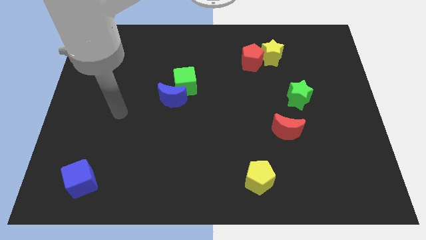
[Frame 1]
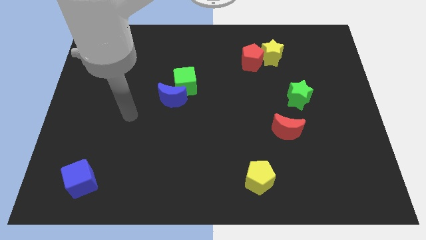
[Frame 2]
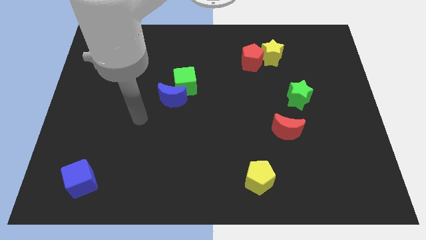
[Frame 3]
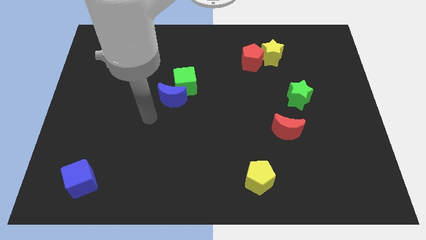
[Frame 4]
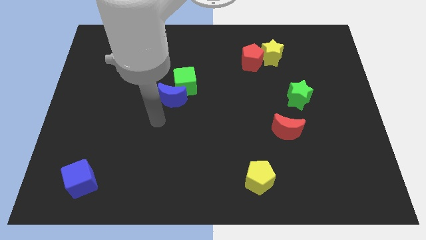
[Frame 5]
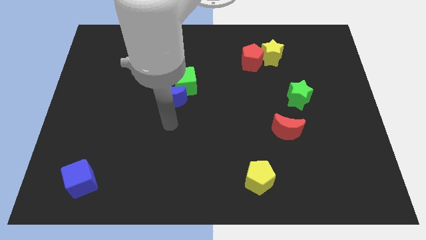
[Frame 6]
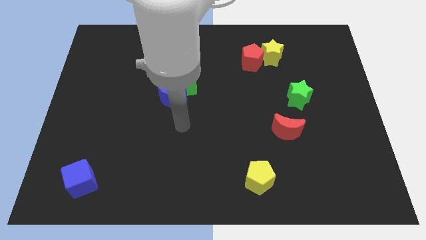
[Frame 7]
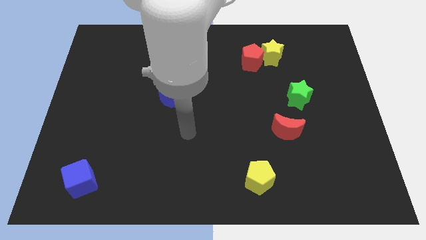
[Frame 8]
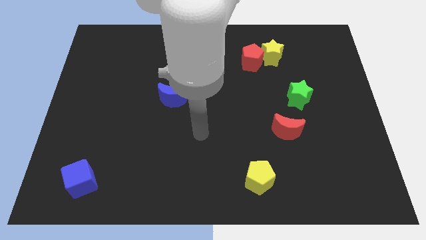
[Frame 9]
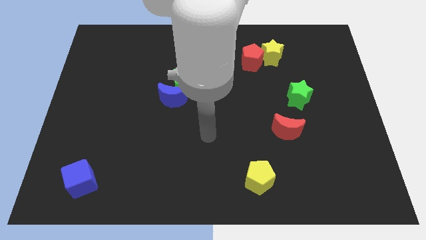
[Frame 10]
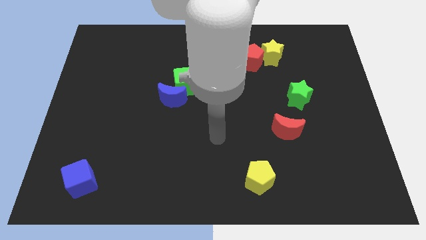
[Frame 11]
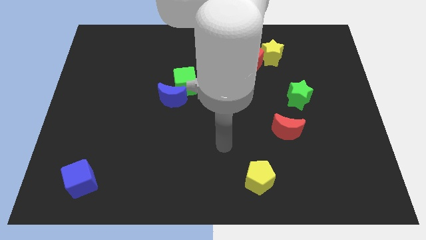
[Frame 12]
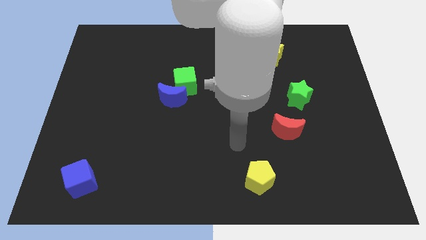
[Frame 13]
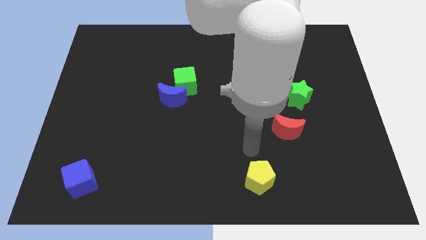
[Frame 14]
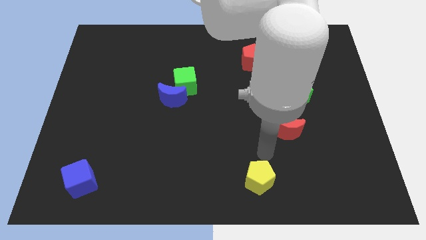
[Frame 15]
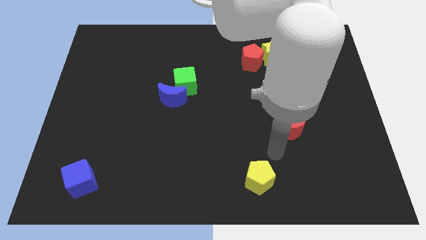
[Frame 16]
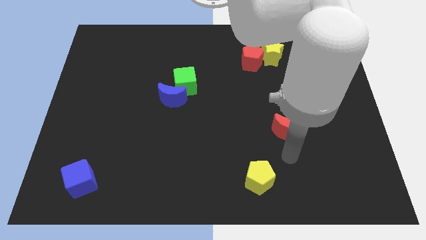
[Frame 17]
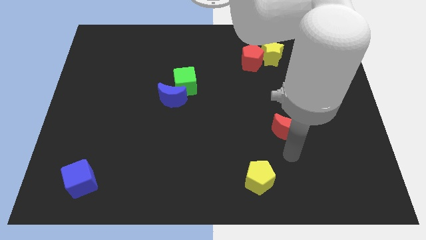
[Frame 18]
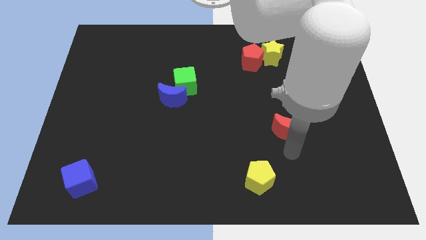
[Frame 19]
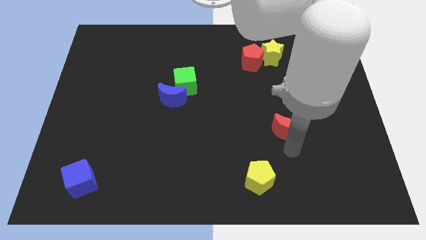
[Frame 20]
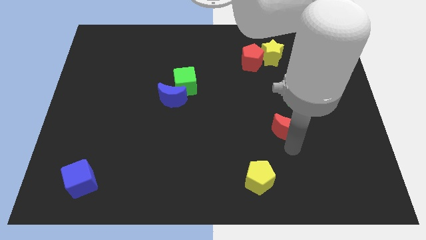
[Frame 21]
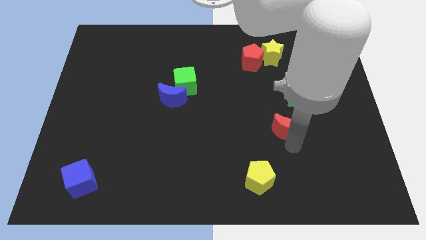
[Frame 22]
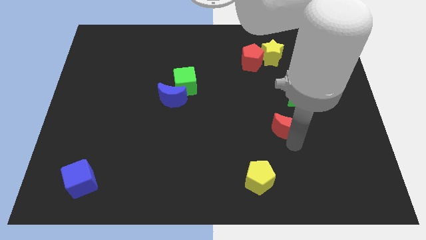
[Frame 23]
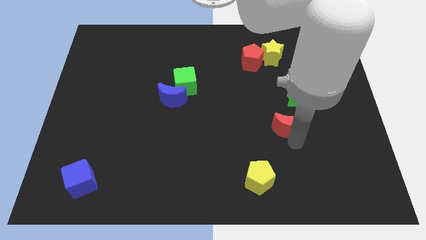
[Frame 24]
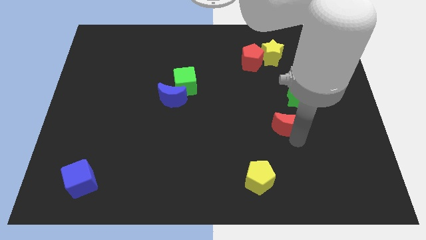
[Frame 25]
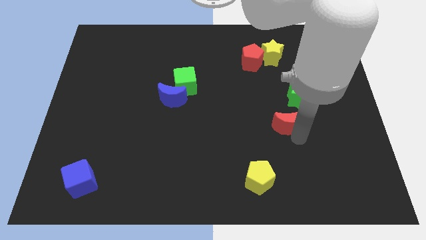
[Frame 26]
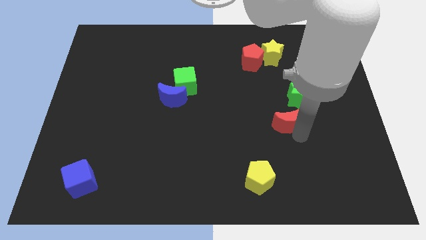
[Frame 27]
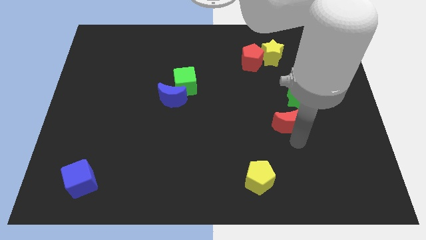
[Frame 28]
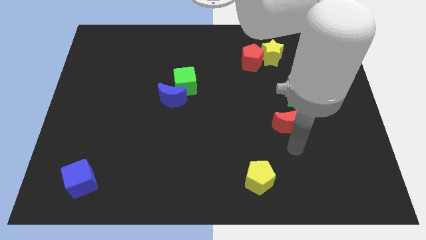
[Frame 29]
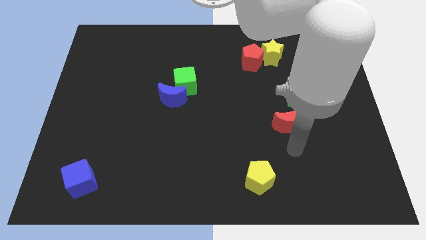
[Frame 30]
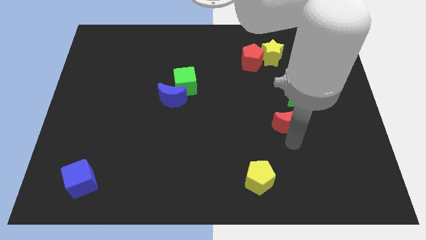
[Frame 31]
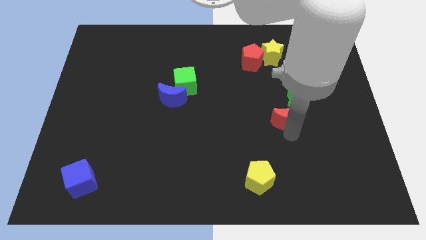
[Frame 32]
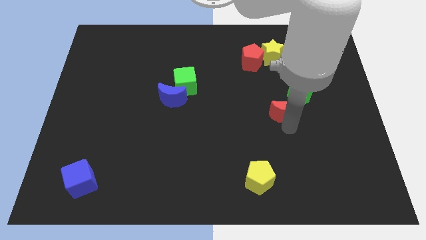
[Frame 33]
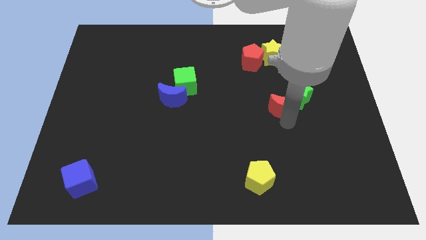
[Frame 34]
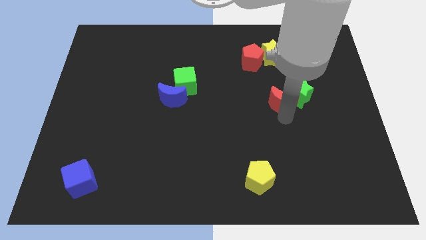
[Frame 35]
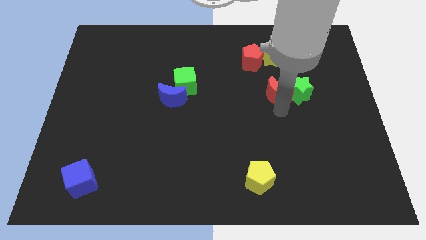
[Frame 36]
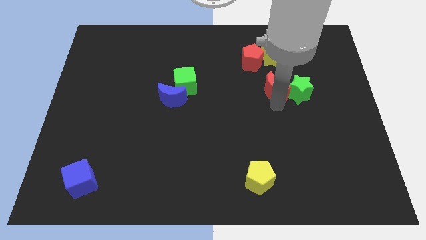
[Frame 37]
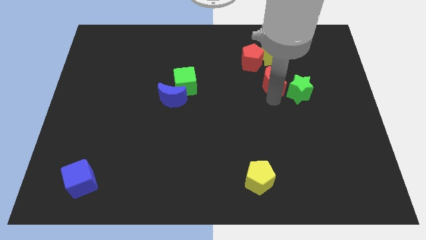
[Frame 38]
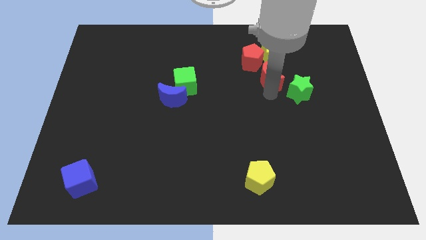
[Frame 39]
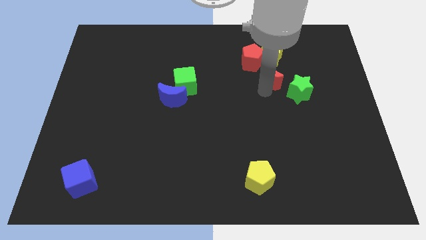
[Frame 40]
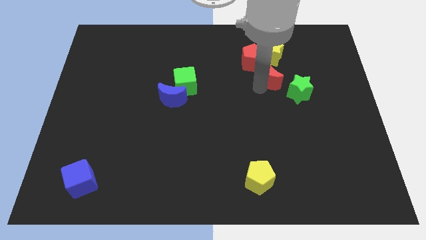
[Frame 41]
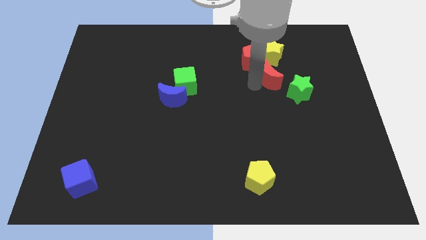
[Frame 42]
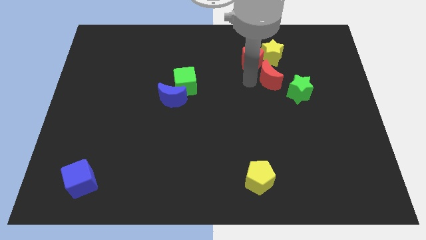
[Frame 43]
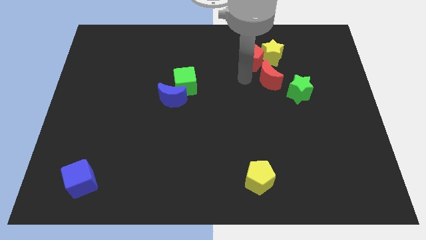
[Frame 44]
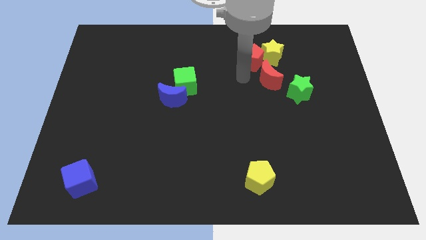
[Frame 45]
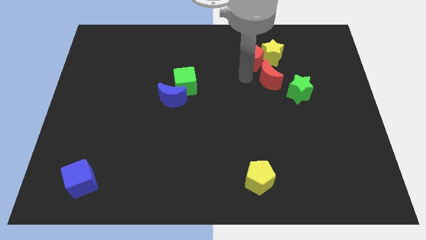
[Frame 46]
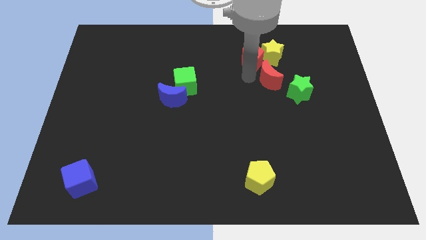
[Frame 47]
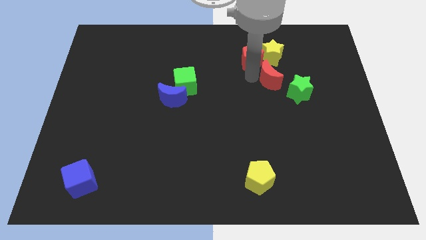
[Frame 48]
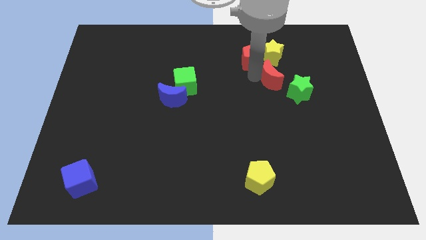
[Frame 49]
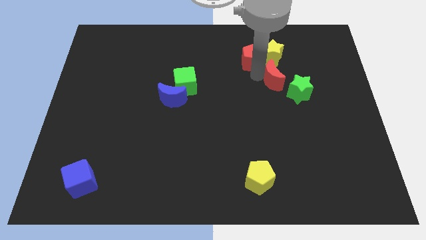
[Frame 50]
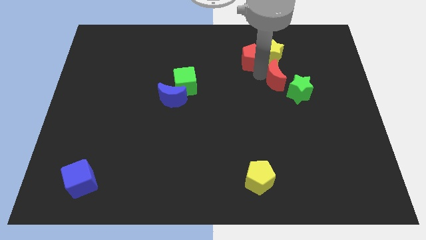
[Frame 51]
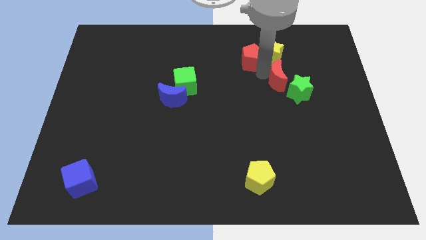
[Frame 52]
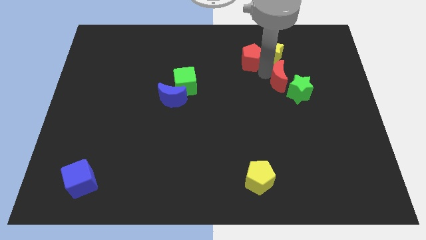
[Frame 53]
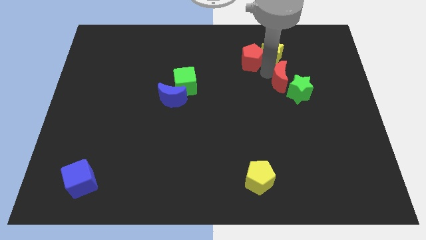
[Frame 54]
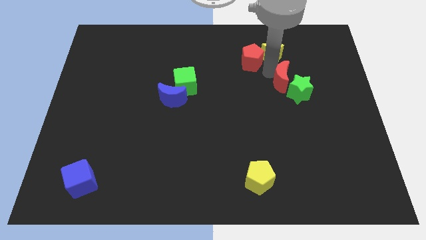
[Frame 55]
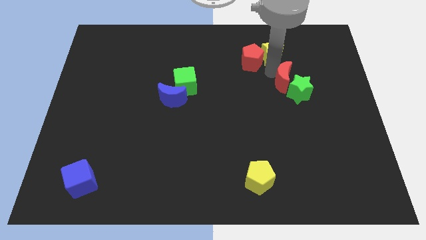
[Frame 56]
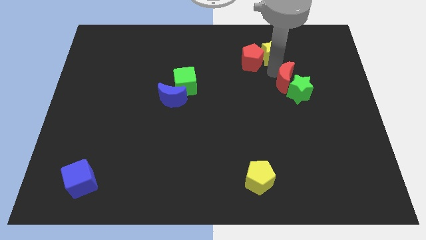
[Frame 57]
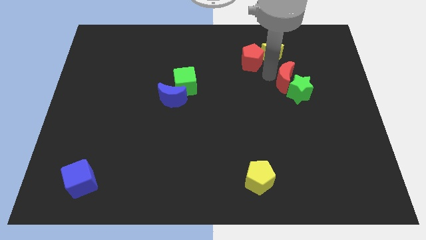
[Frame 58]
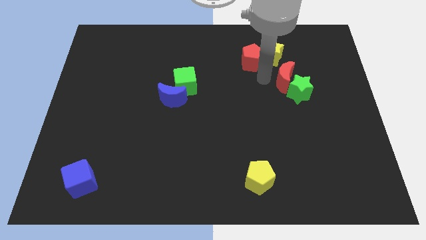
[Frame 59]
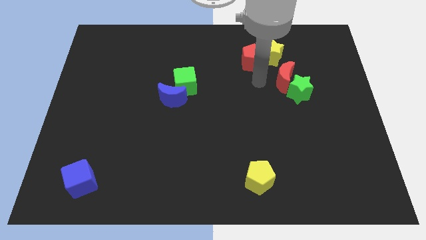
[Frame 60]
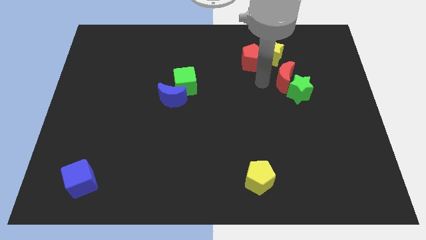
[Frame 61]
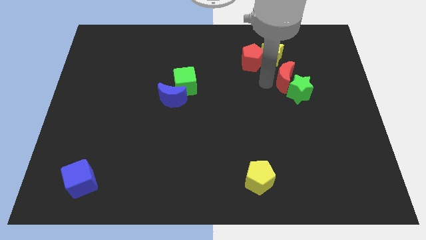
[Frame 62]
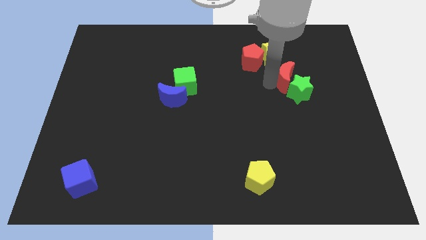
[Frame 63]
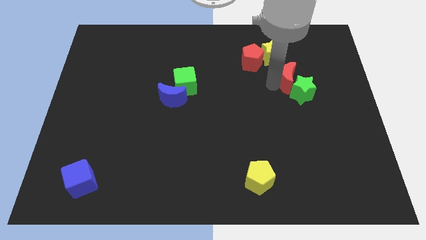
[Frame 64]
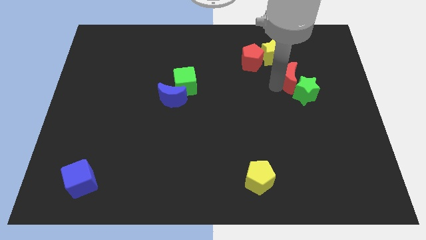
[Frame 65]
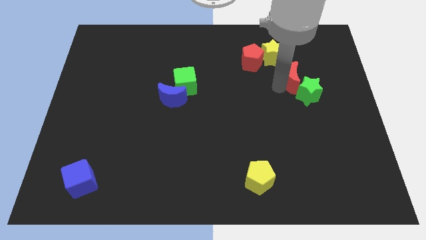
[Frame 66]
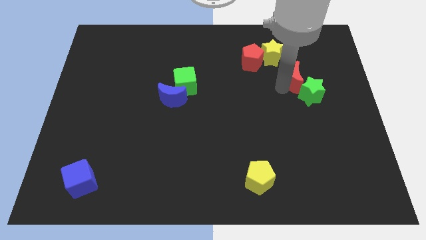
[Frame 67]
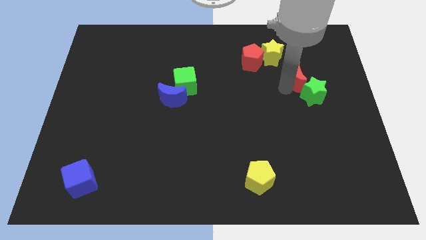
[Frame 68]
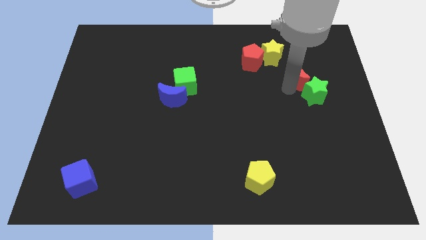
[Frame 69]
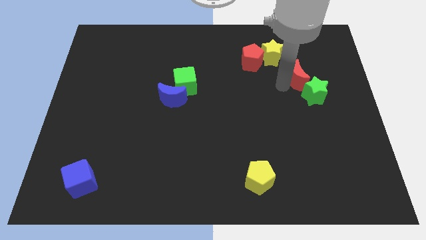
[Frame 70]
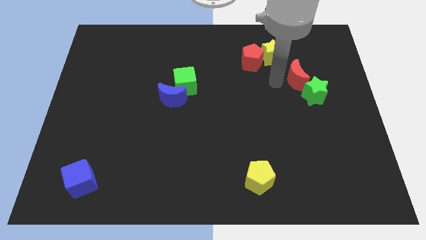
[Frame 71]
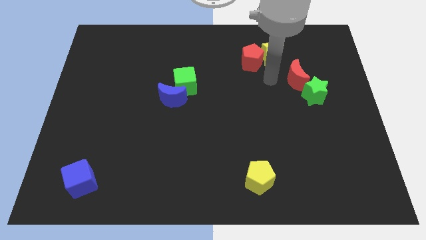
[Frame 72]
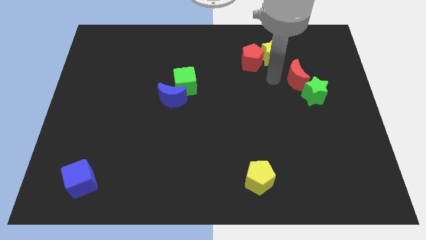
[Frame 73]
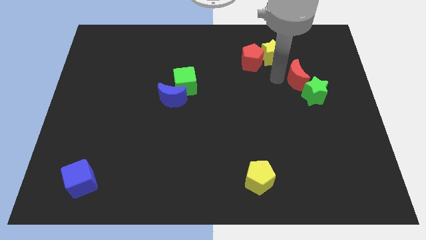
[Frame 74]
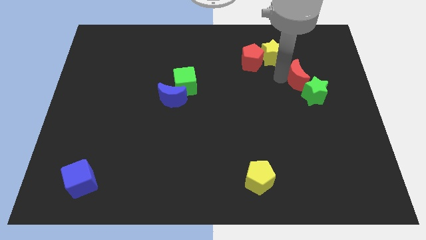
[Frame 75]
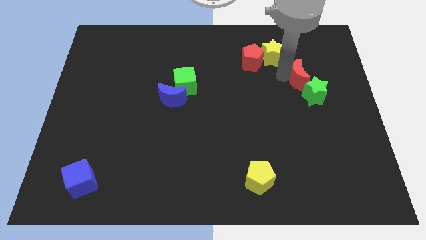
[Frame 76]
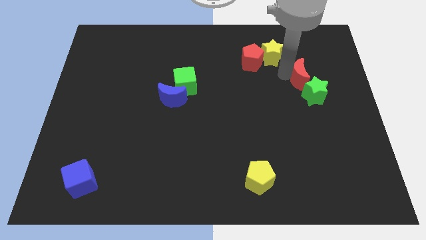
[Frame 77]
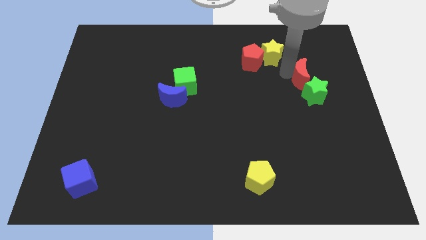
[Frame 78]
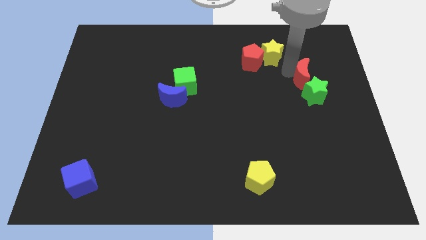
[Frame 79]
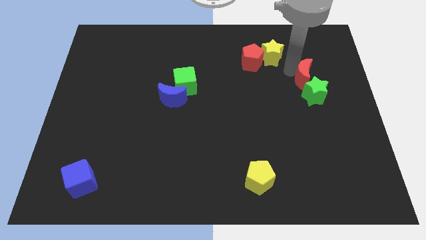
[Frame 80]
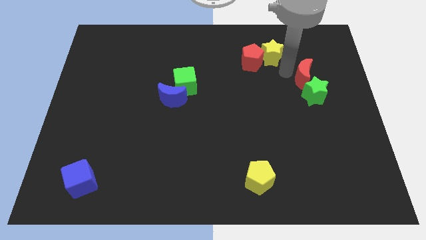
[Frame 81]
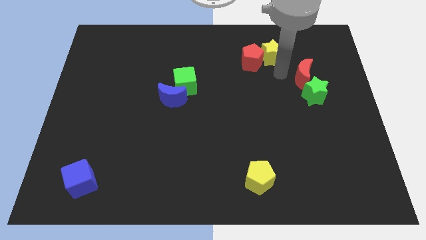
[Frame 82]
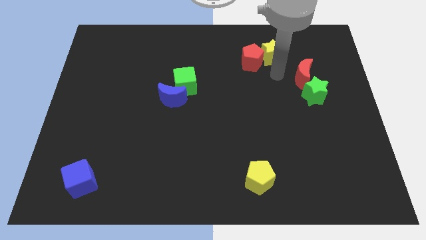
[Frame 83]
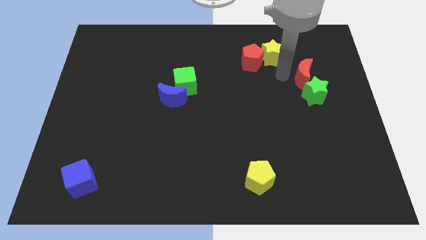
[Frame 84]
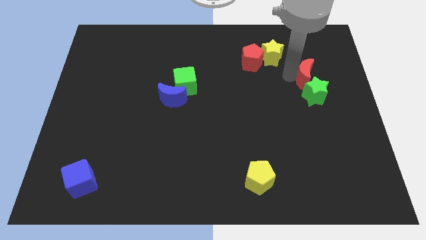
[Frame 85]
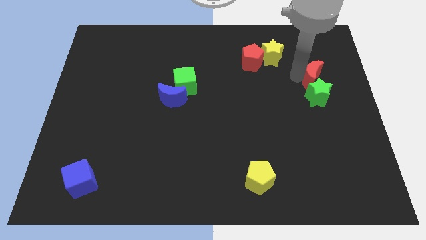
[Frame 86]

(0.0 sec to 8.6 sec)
push the red moon diagonally up and to the right of the green star

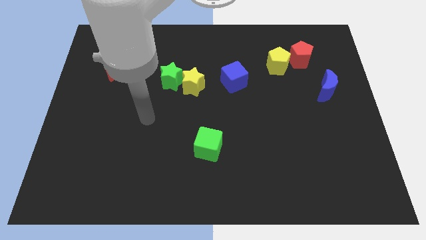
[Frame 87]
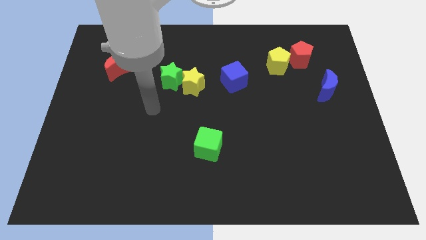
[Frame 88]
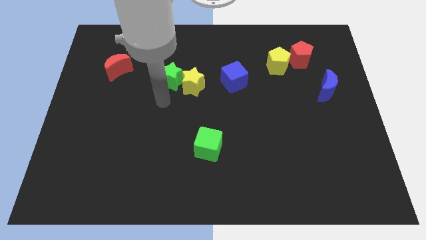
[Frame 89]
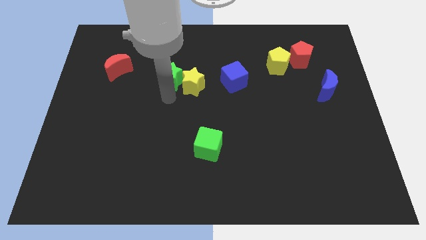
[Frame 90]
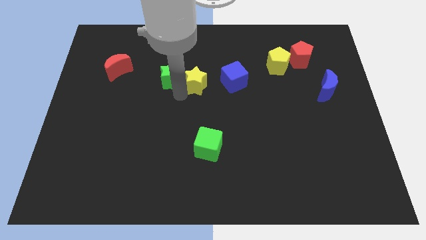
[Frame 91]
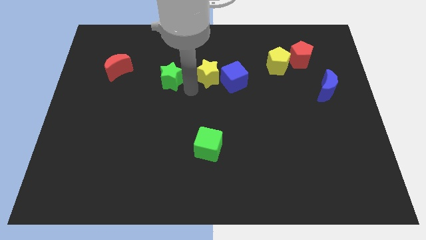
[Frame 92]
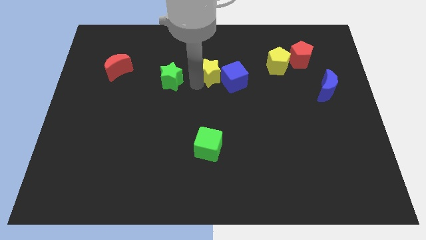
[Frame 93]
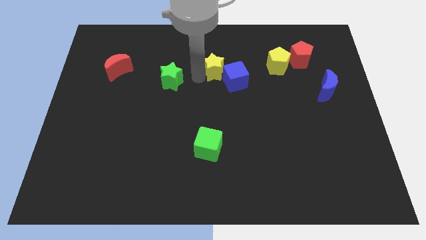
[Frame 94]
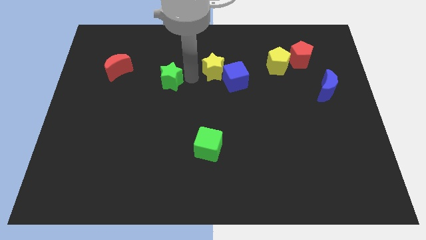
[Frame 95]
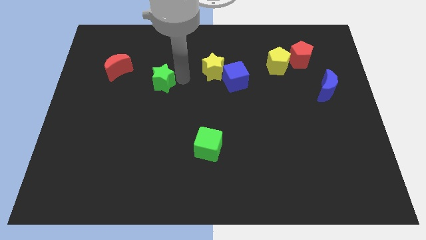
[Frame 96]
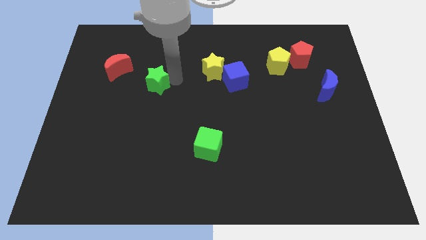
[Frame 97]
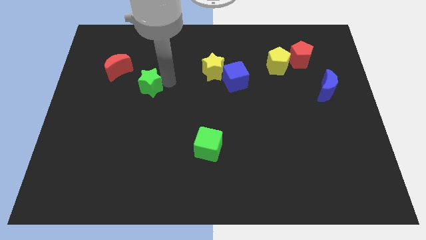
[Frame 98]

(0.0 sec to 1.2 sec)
slide the green star to the bottom right of the red moon
